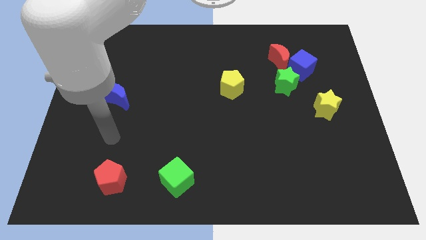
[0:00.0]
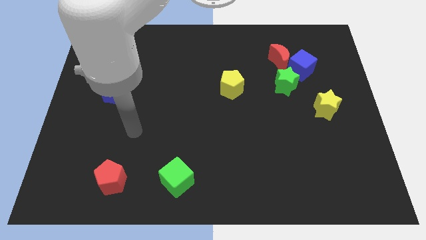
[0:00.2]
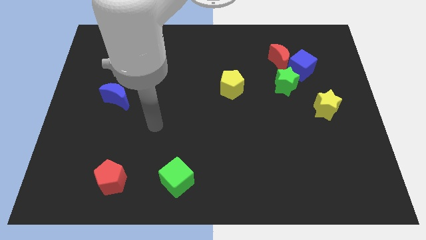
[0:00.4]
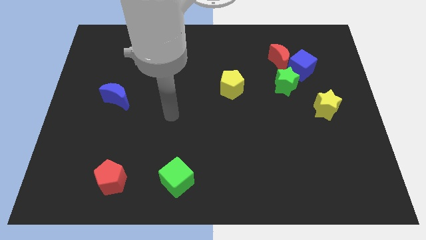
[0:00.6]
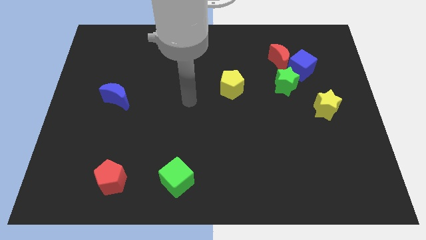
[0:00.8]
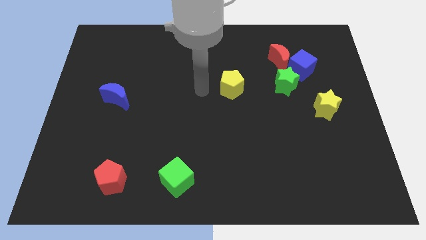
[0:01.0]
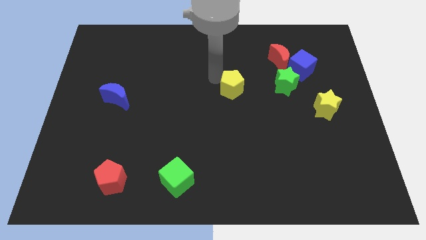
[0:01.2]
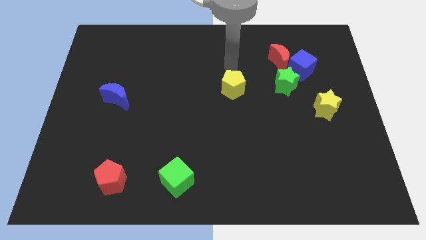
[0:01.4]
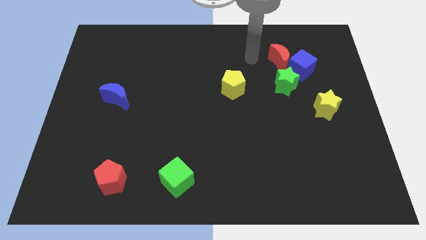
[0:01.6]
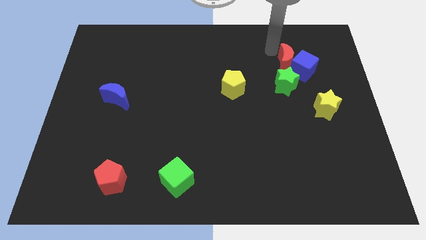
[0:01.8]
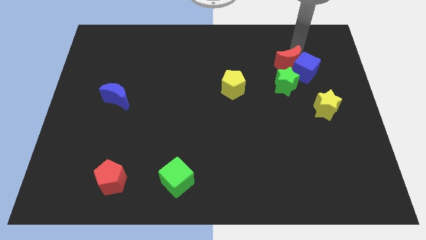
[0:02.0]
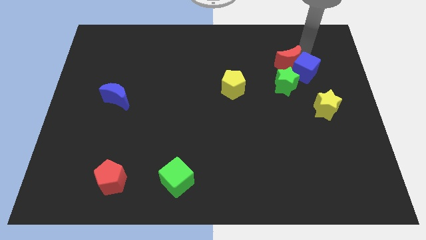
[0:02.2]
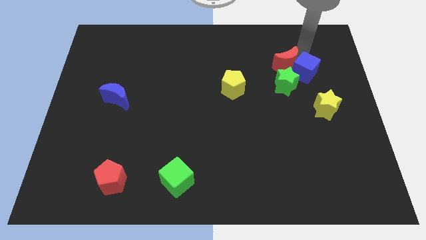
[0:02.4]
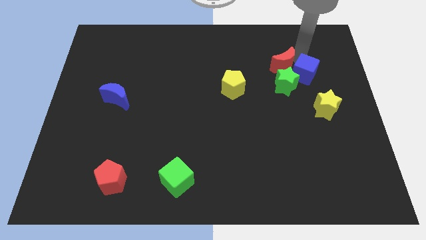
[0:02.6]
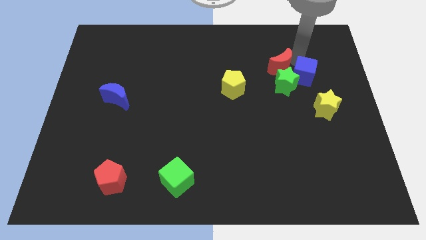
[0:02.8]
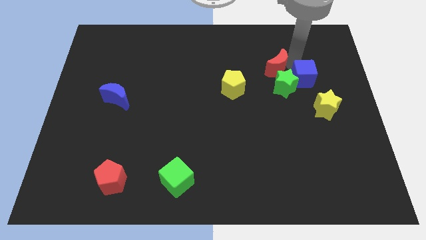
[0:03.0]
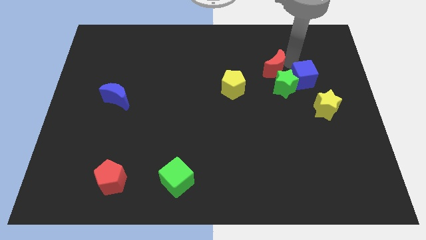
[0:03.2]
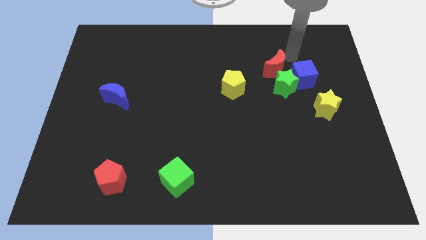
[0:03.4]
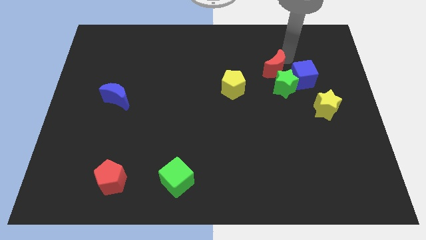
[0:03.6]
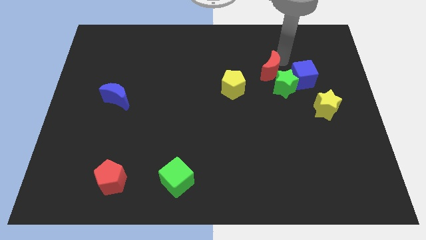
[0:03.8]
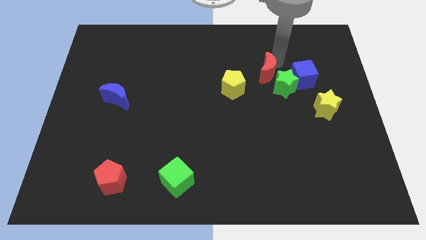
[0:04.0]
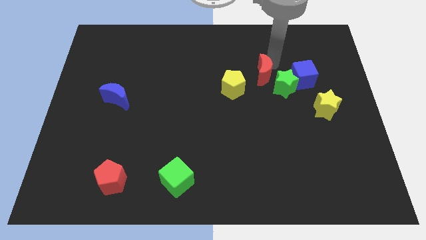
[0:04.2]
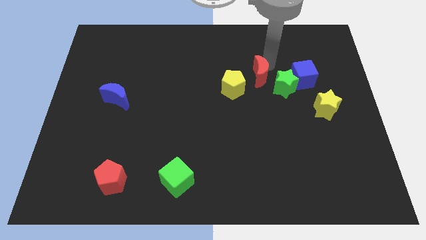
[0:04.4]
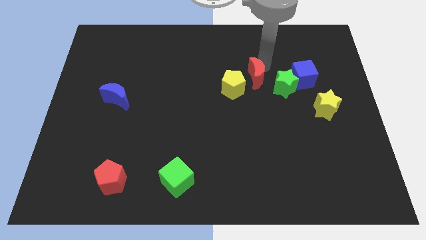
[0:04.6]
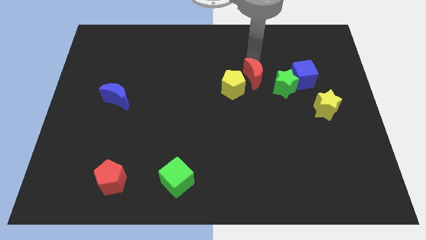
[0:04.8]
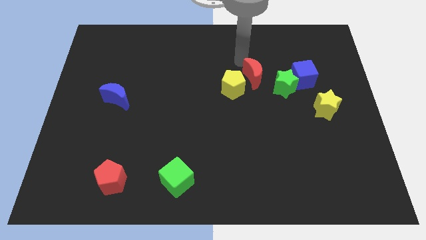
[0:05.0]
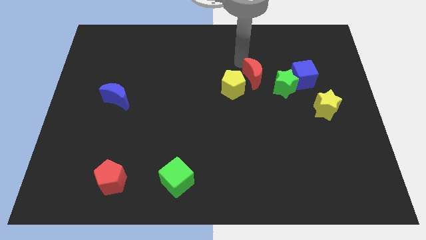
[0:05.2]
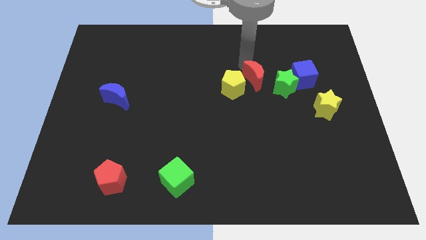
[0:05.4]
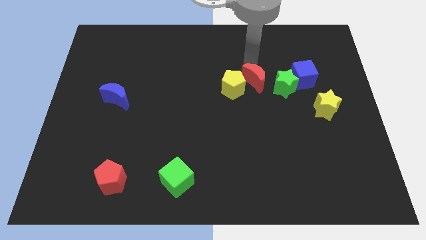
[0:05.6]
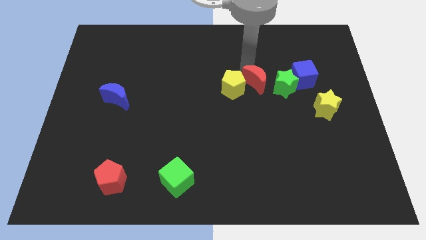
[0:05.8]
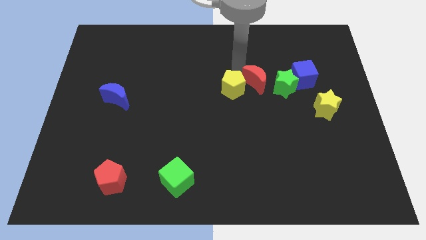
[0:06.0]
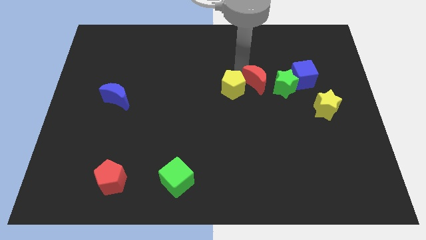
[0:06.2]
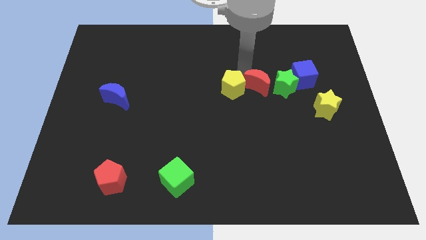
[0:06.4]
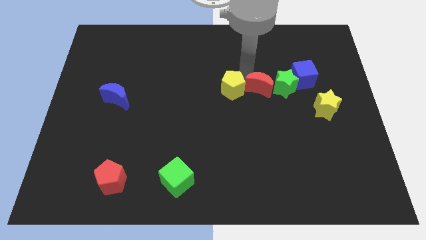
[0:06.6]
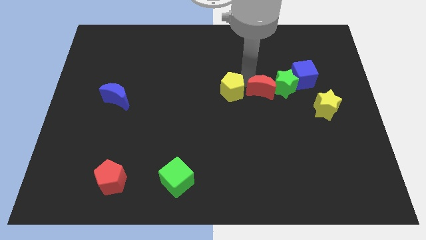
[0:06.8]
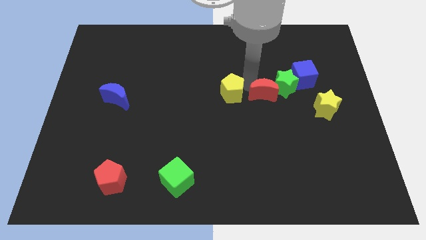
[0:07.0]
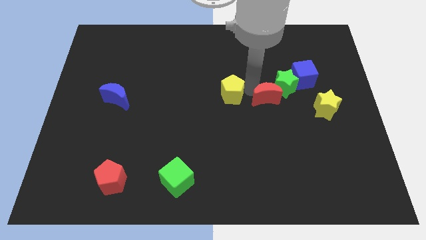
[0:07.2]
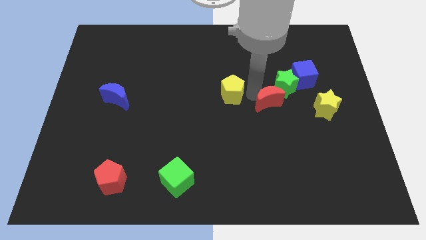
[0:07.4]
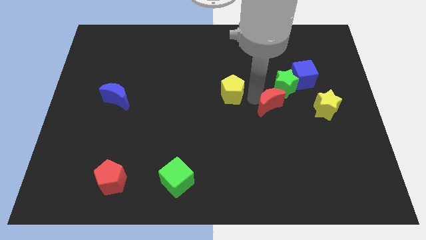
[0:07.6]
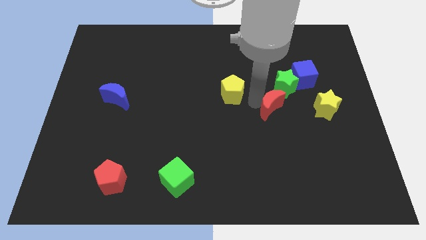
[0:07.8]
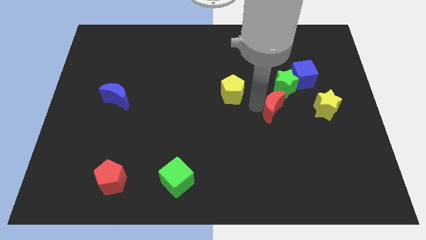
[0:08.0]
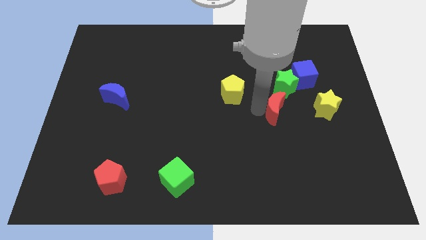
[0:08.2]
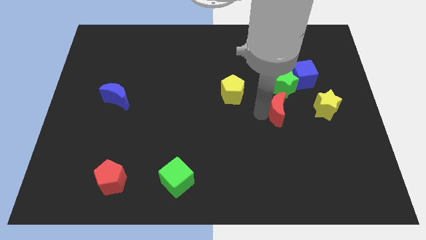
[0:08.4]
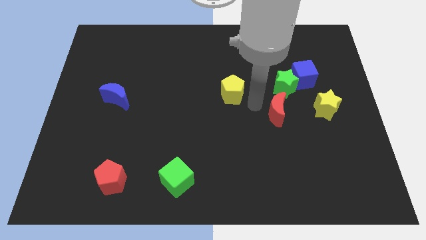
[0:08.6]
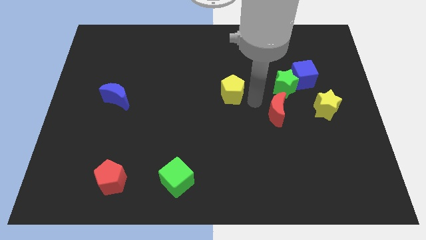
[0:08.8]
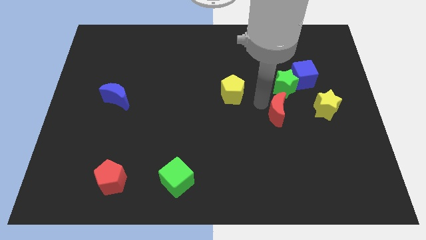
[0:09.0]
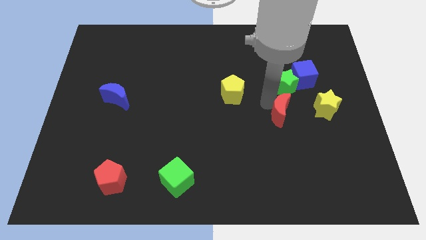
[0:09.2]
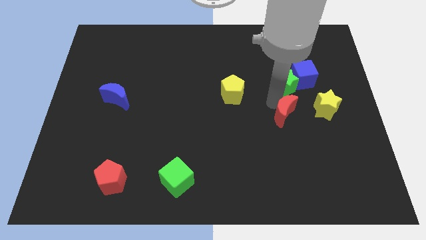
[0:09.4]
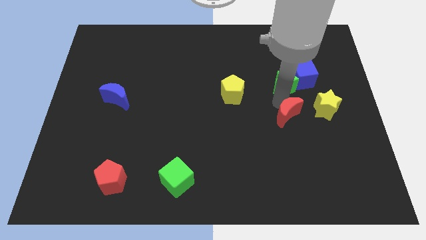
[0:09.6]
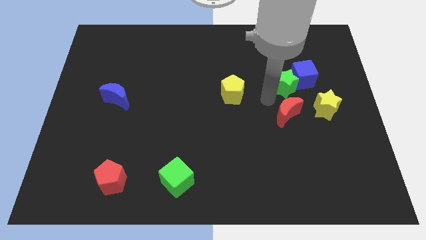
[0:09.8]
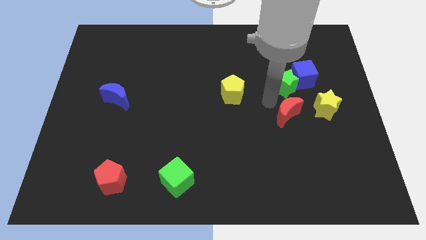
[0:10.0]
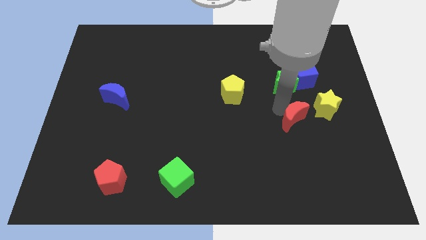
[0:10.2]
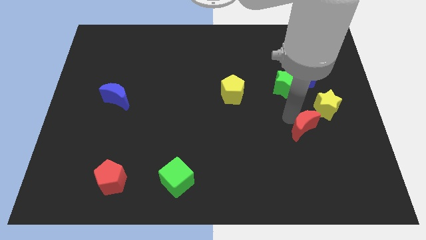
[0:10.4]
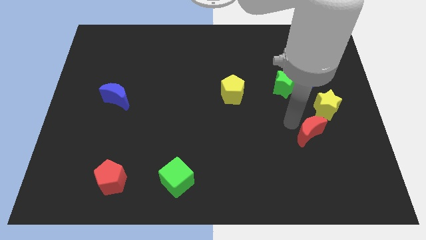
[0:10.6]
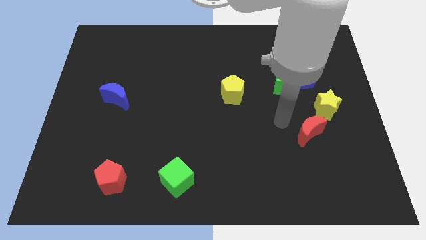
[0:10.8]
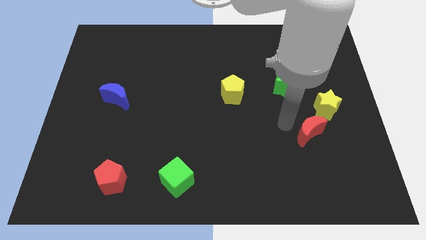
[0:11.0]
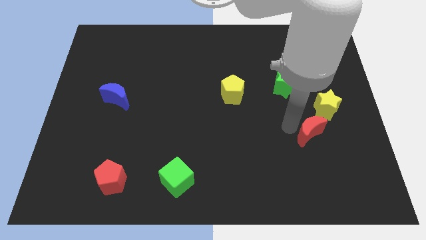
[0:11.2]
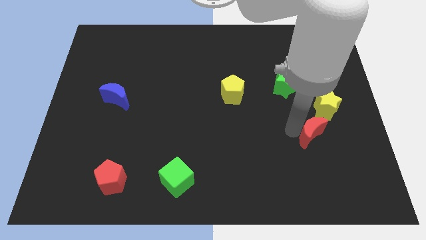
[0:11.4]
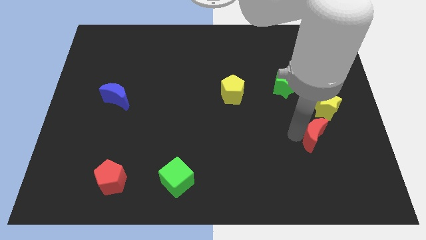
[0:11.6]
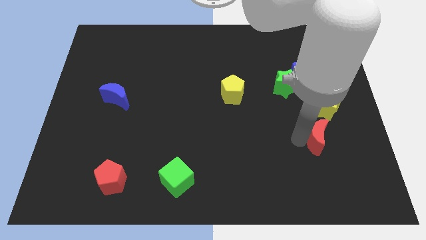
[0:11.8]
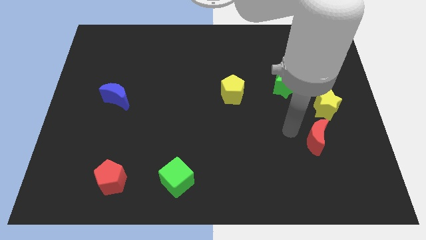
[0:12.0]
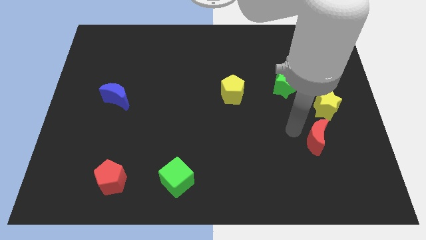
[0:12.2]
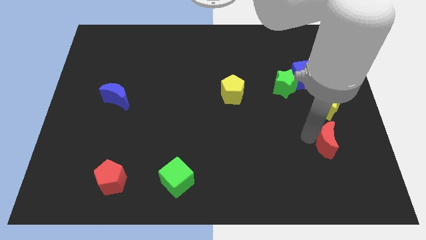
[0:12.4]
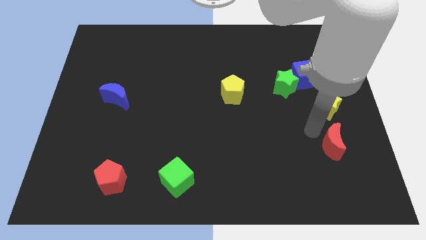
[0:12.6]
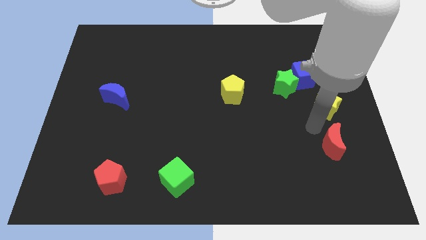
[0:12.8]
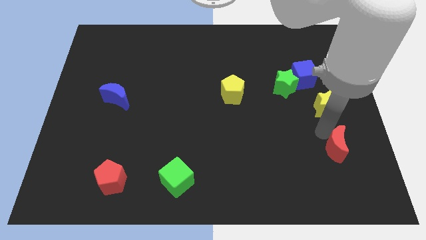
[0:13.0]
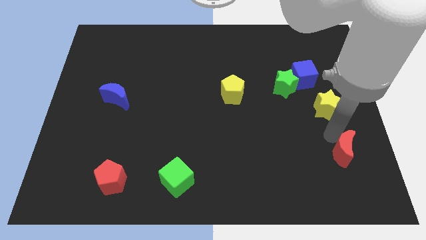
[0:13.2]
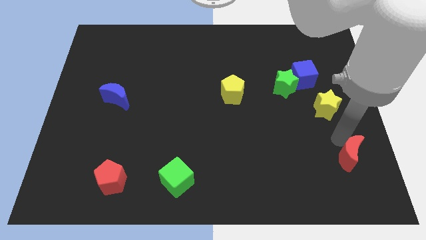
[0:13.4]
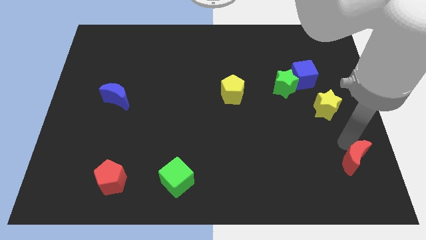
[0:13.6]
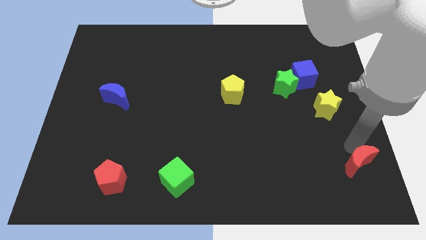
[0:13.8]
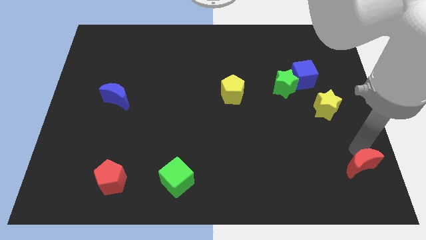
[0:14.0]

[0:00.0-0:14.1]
slide the red moon to the lower right corner

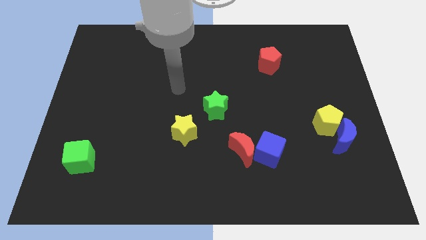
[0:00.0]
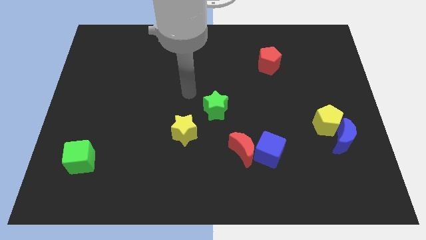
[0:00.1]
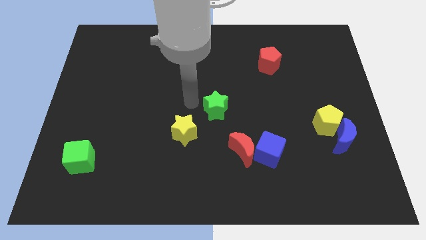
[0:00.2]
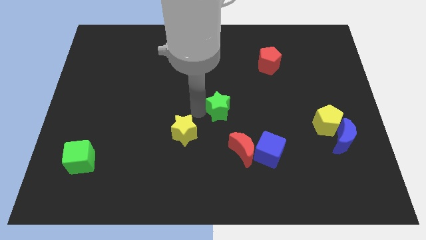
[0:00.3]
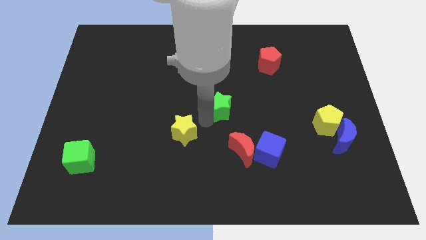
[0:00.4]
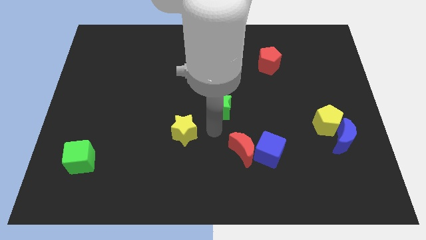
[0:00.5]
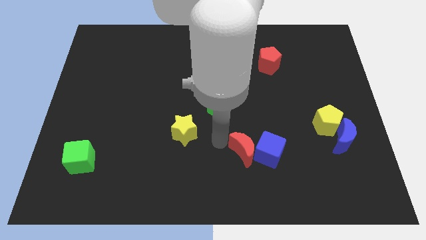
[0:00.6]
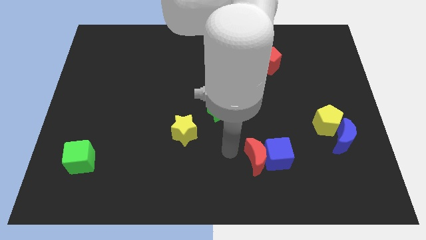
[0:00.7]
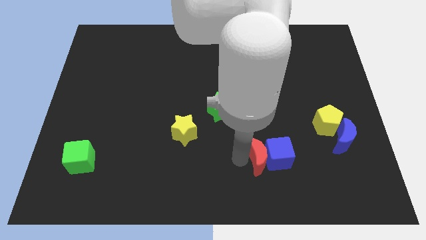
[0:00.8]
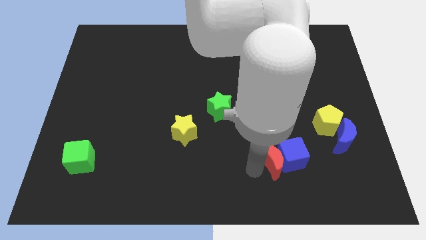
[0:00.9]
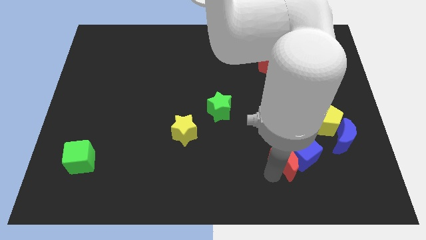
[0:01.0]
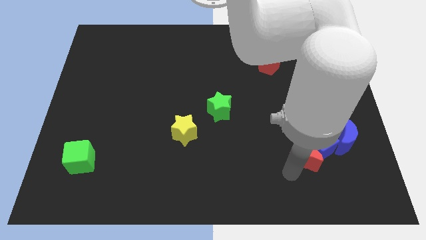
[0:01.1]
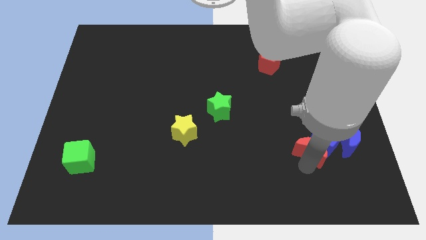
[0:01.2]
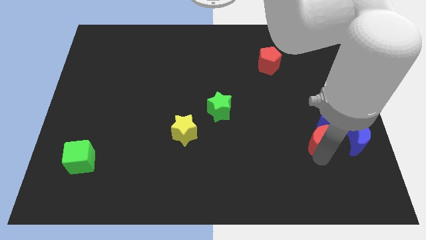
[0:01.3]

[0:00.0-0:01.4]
push the blue cube to the right side
